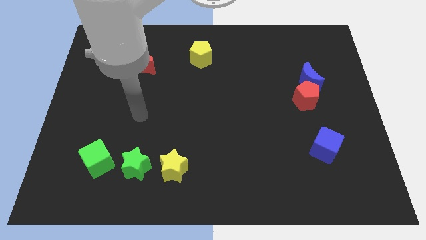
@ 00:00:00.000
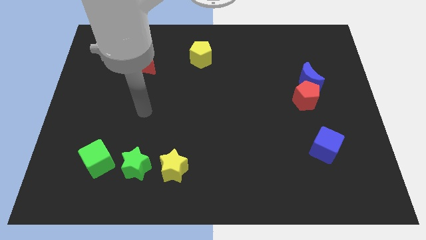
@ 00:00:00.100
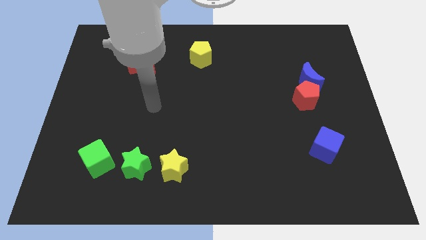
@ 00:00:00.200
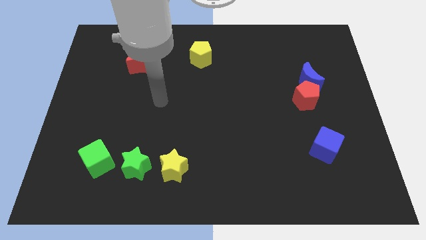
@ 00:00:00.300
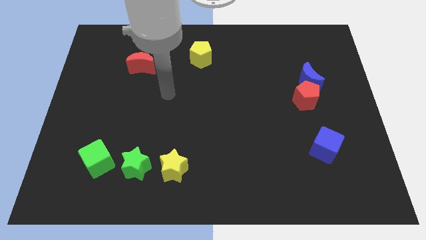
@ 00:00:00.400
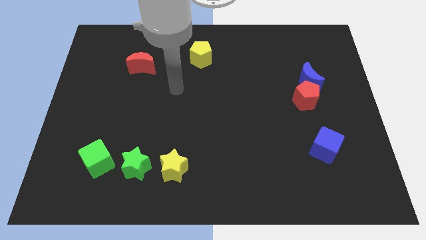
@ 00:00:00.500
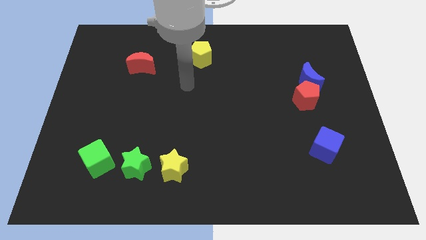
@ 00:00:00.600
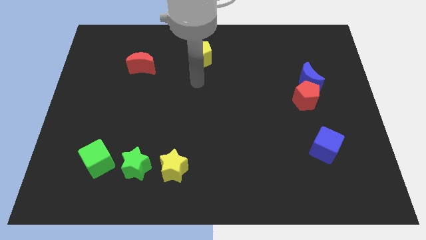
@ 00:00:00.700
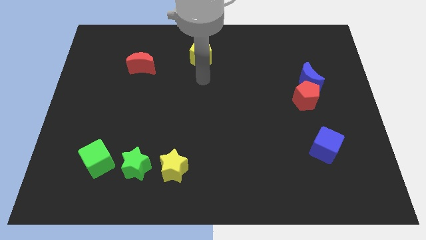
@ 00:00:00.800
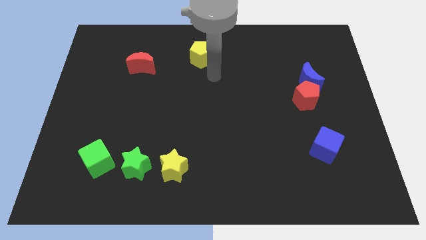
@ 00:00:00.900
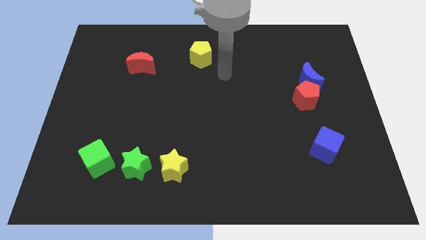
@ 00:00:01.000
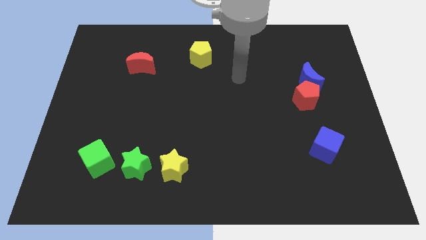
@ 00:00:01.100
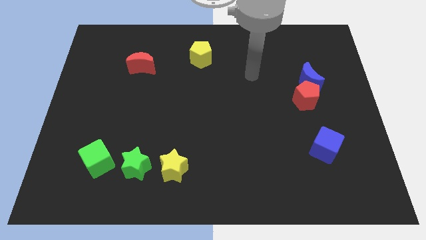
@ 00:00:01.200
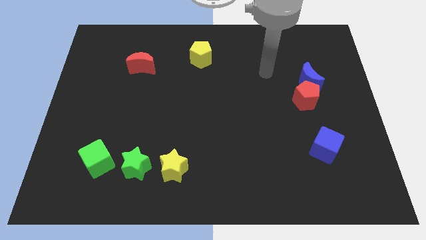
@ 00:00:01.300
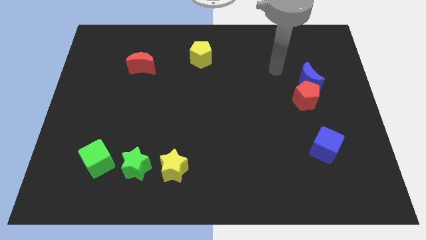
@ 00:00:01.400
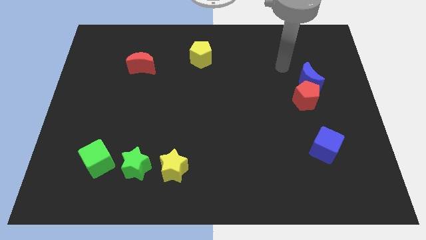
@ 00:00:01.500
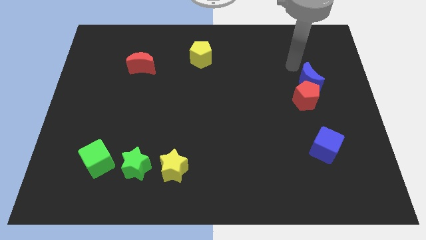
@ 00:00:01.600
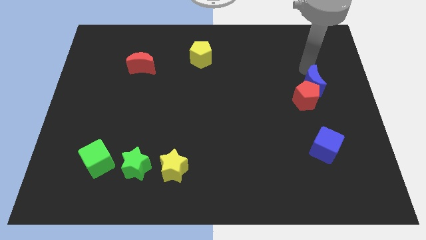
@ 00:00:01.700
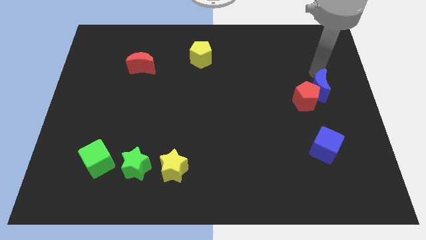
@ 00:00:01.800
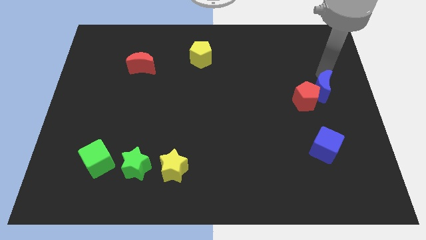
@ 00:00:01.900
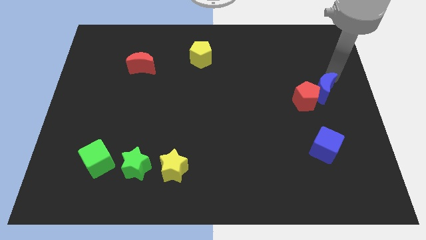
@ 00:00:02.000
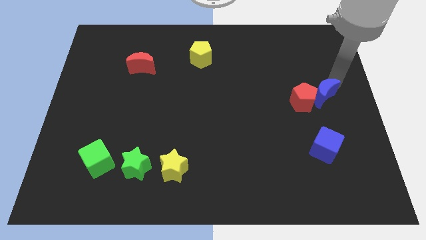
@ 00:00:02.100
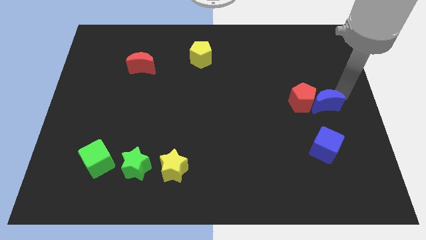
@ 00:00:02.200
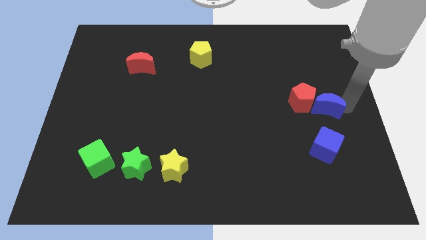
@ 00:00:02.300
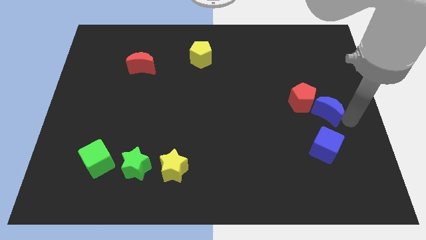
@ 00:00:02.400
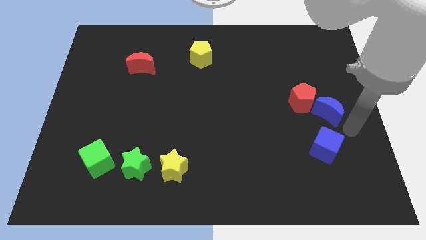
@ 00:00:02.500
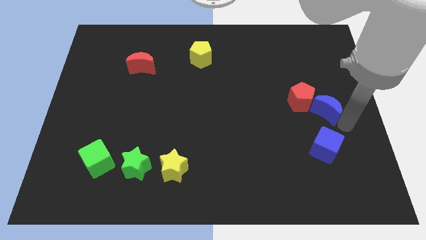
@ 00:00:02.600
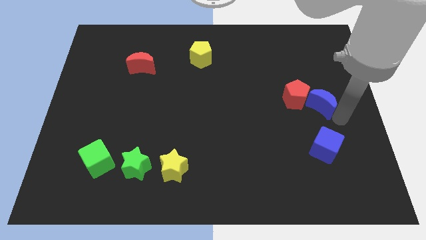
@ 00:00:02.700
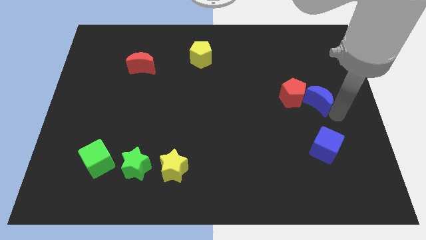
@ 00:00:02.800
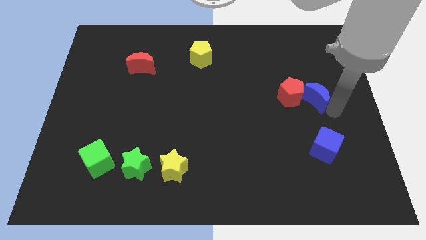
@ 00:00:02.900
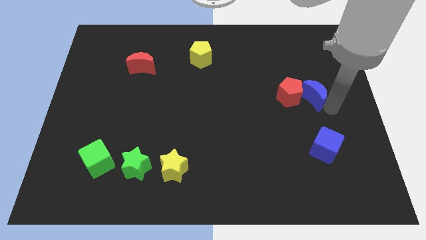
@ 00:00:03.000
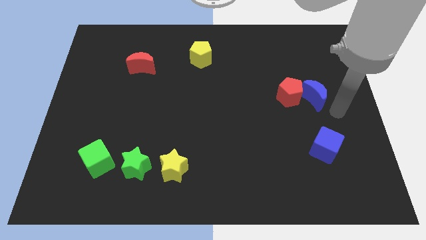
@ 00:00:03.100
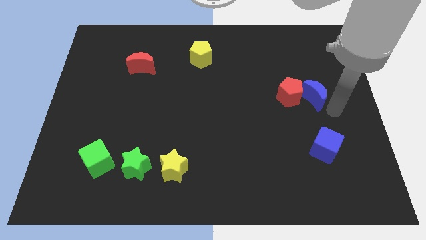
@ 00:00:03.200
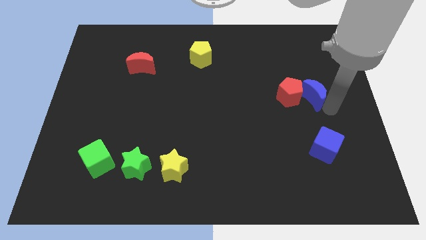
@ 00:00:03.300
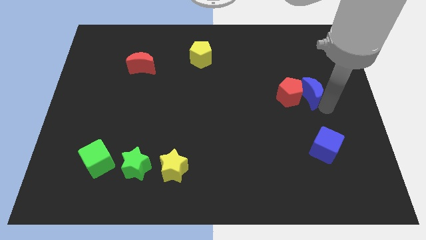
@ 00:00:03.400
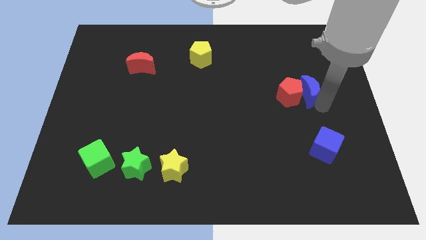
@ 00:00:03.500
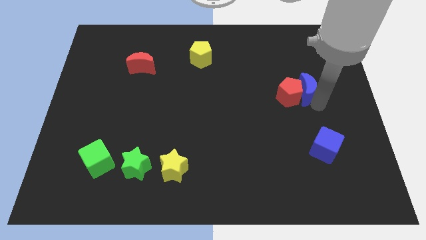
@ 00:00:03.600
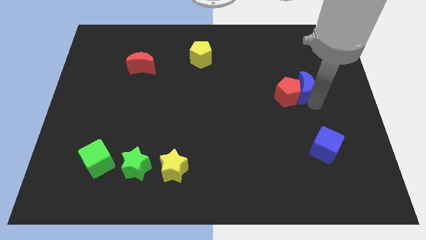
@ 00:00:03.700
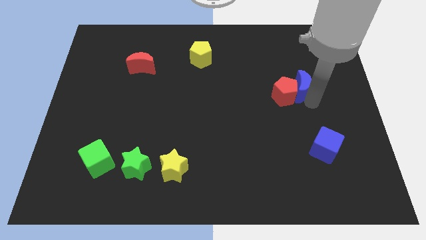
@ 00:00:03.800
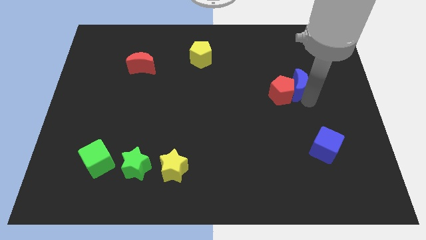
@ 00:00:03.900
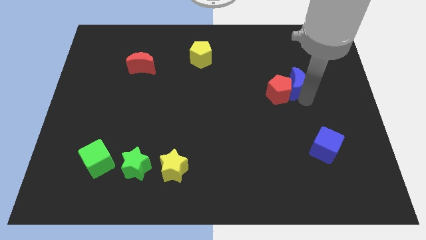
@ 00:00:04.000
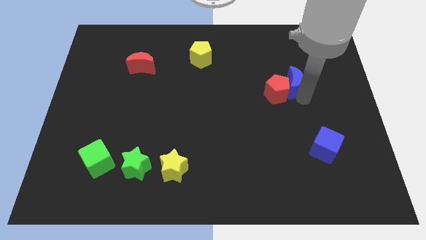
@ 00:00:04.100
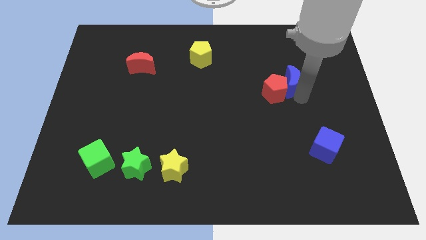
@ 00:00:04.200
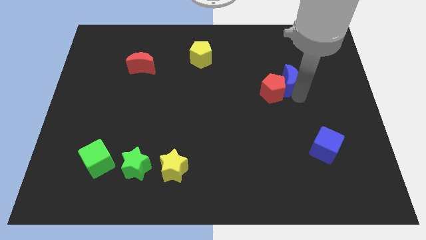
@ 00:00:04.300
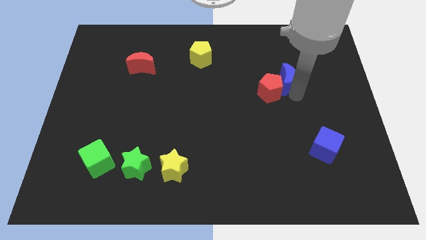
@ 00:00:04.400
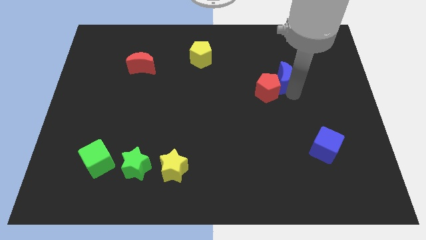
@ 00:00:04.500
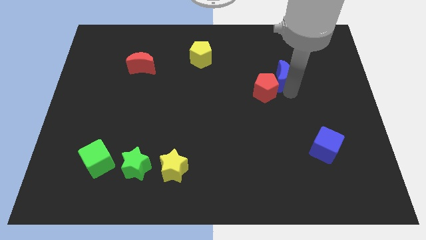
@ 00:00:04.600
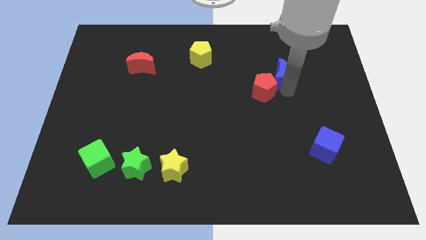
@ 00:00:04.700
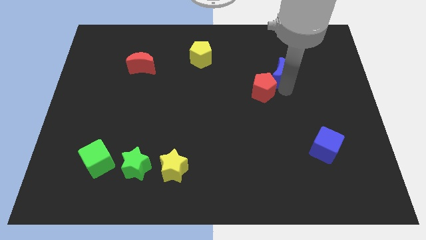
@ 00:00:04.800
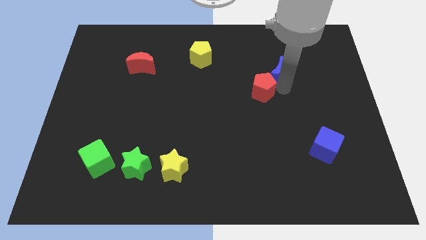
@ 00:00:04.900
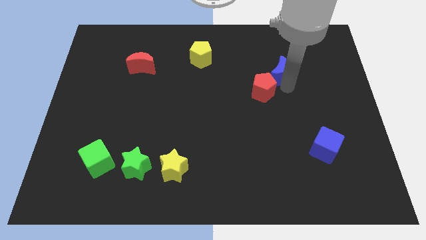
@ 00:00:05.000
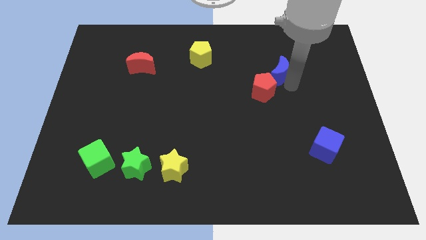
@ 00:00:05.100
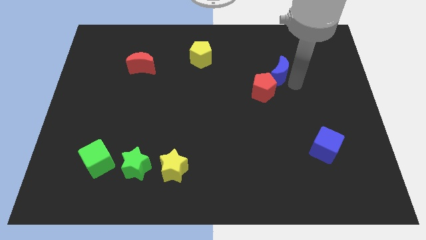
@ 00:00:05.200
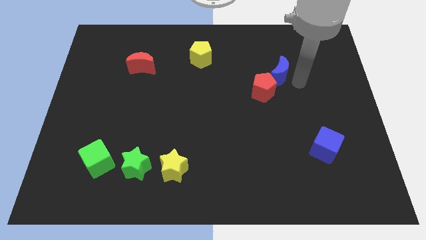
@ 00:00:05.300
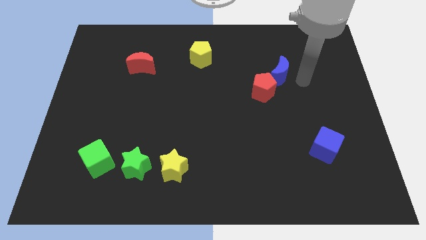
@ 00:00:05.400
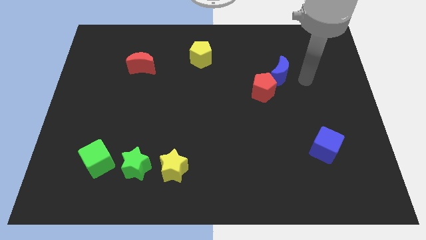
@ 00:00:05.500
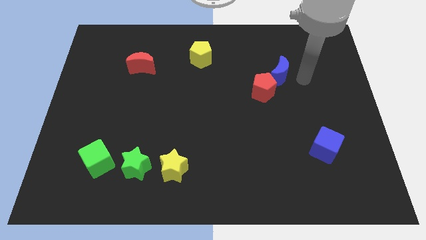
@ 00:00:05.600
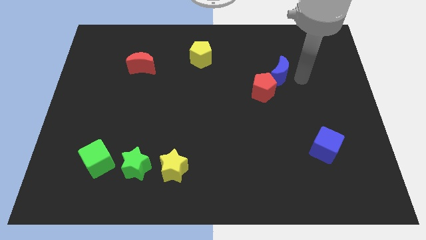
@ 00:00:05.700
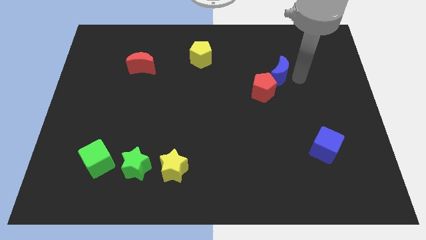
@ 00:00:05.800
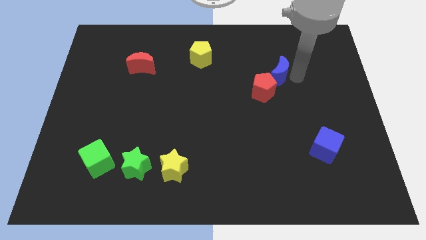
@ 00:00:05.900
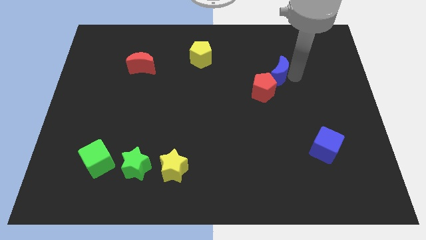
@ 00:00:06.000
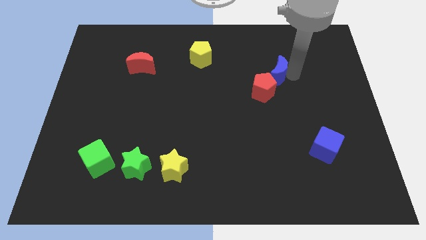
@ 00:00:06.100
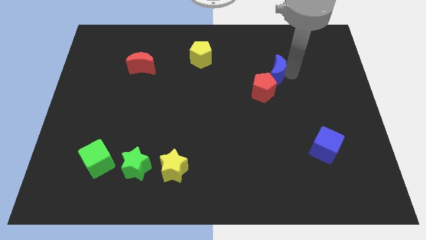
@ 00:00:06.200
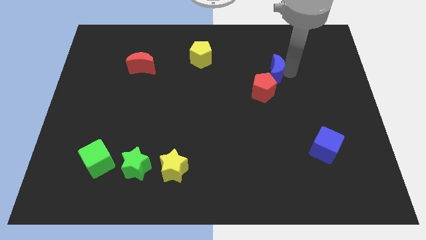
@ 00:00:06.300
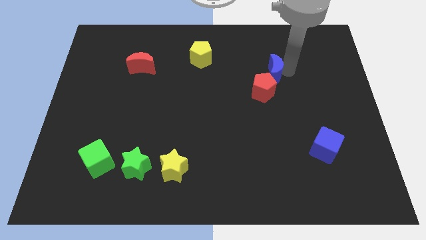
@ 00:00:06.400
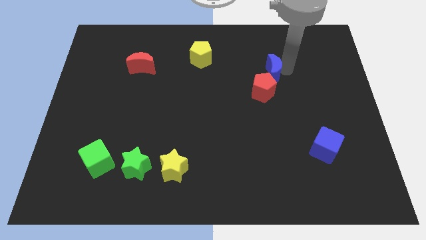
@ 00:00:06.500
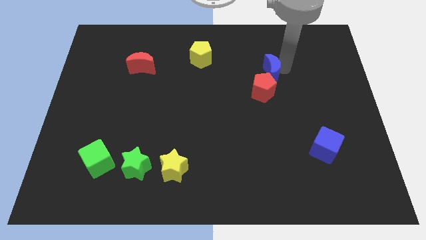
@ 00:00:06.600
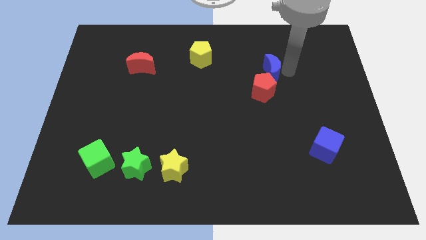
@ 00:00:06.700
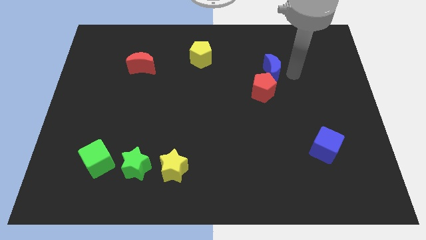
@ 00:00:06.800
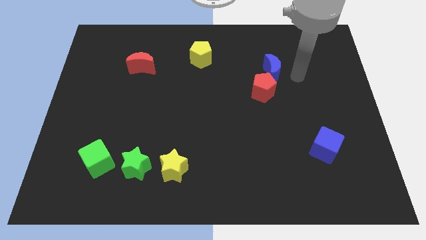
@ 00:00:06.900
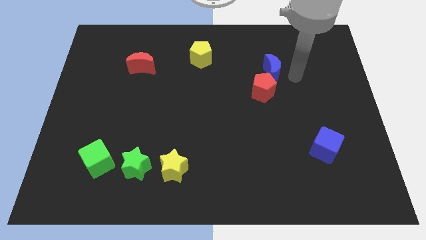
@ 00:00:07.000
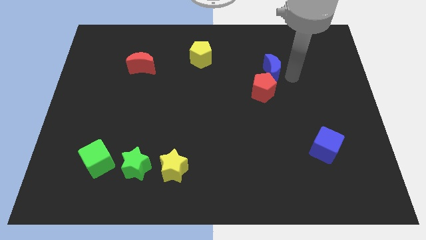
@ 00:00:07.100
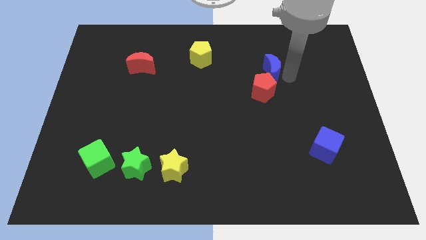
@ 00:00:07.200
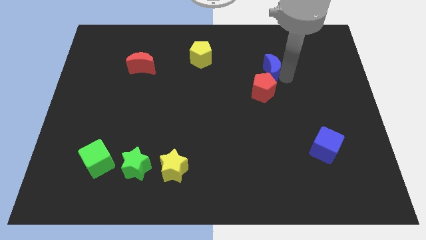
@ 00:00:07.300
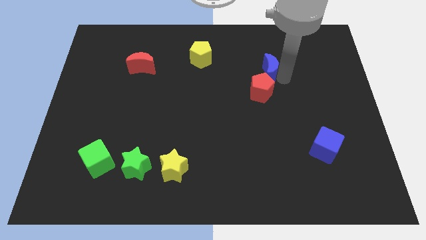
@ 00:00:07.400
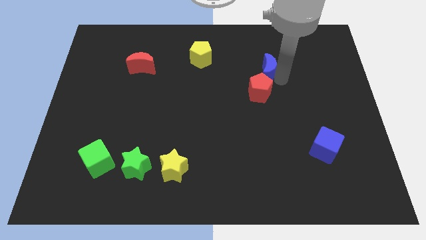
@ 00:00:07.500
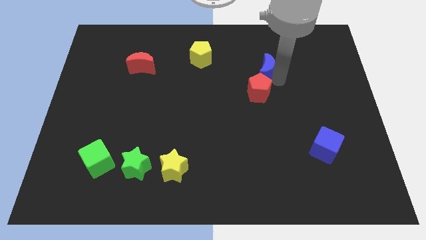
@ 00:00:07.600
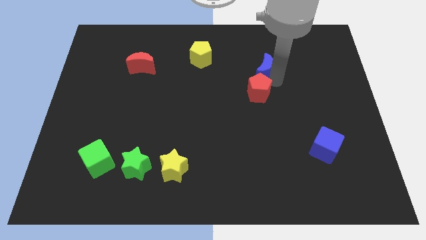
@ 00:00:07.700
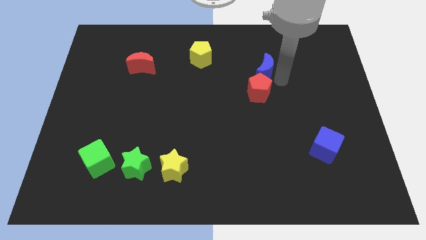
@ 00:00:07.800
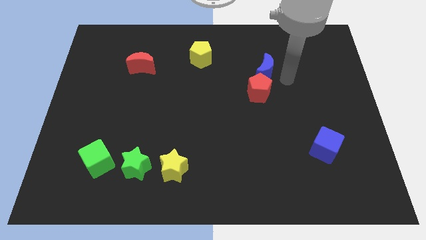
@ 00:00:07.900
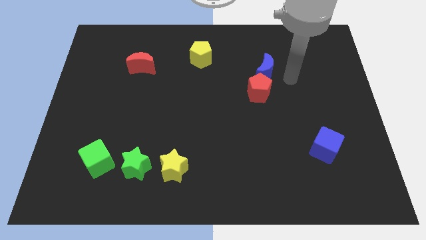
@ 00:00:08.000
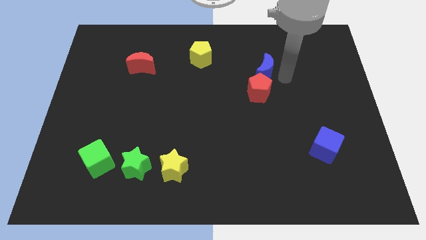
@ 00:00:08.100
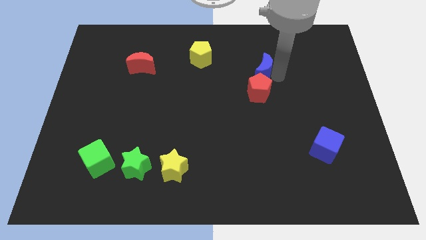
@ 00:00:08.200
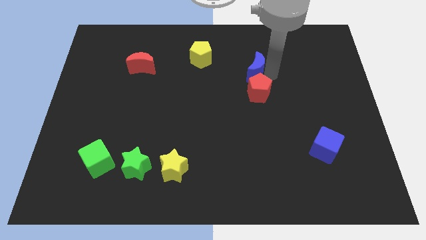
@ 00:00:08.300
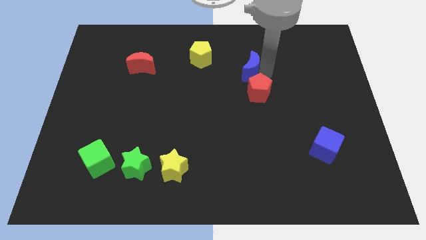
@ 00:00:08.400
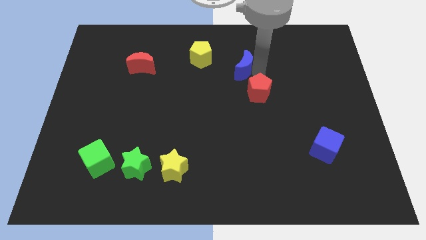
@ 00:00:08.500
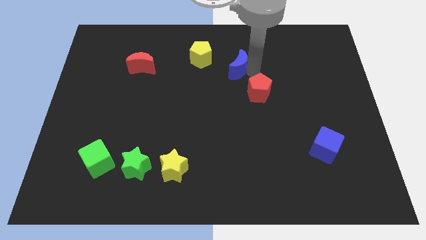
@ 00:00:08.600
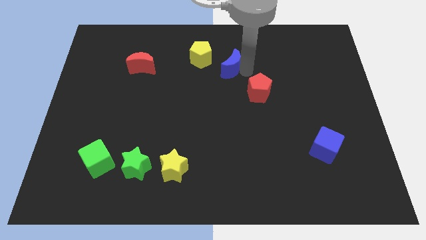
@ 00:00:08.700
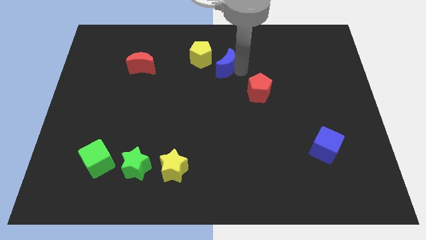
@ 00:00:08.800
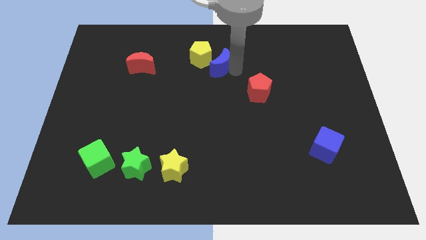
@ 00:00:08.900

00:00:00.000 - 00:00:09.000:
put the blue moon next to the yellow pentagon
